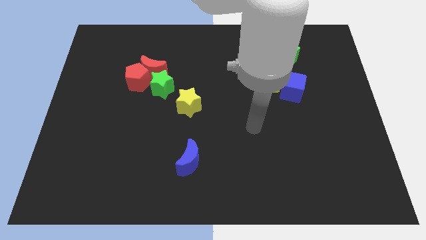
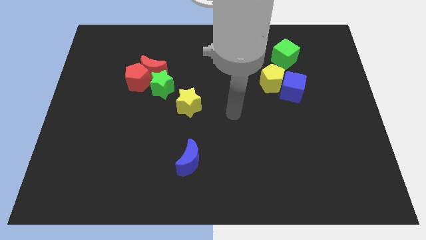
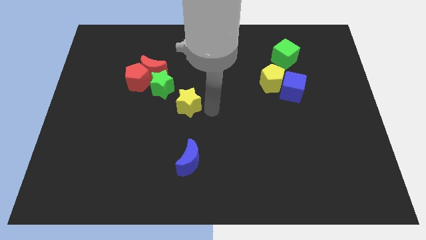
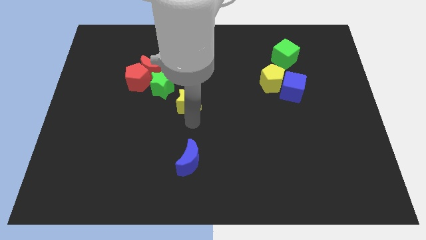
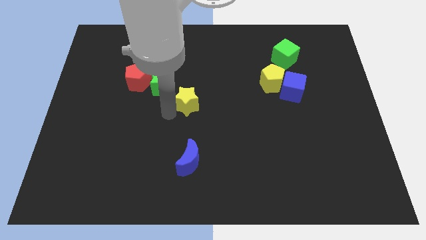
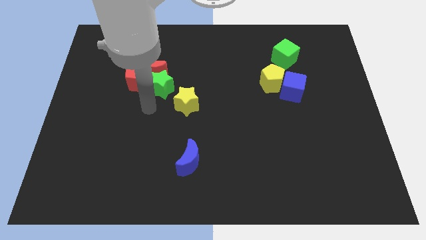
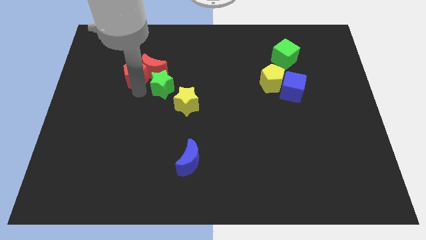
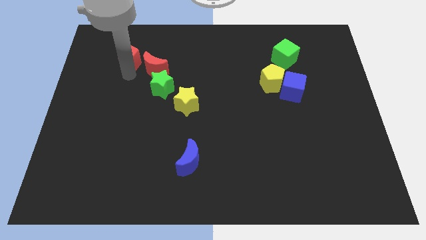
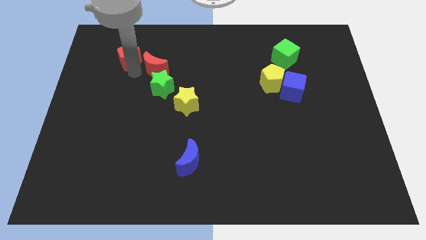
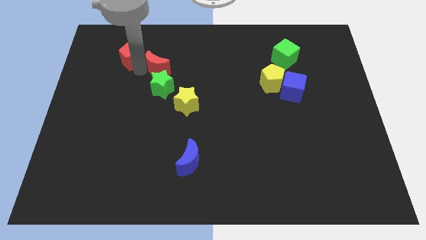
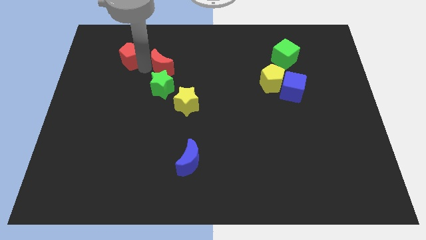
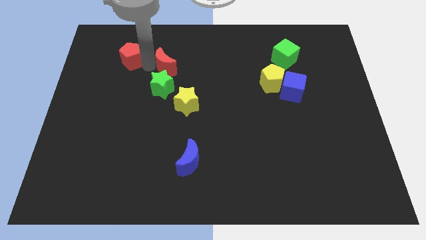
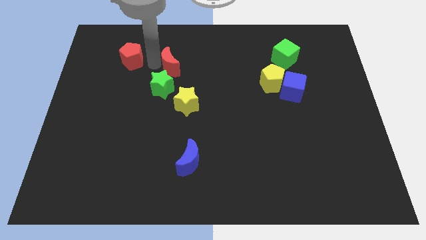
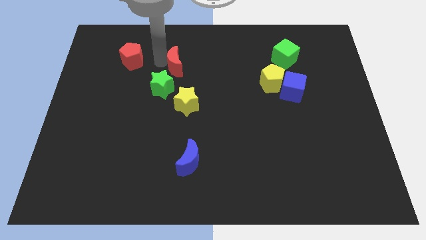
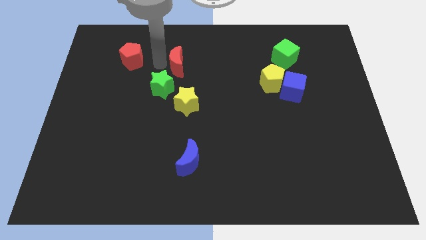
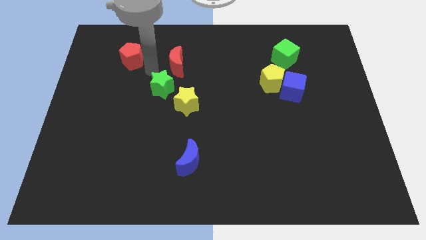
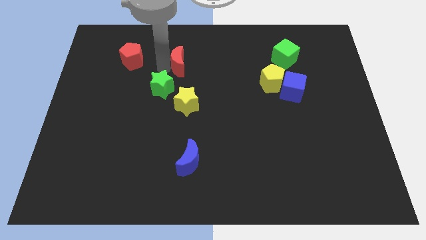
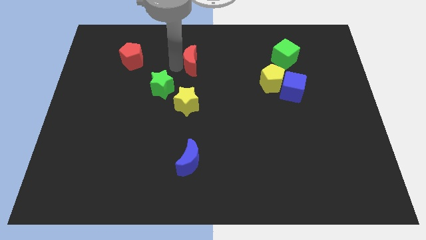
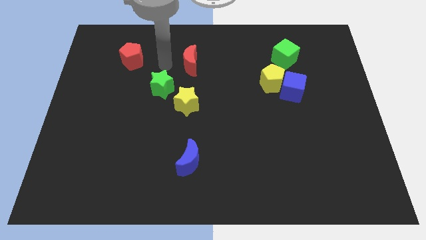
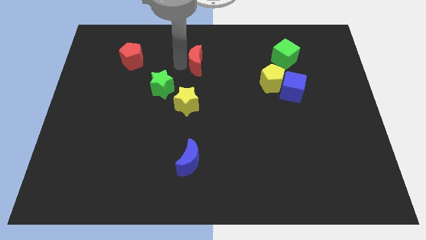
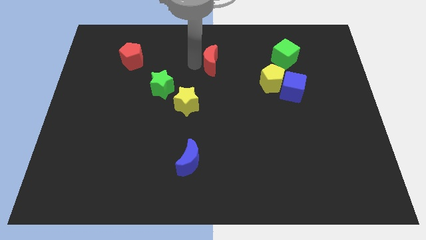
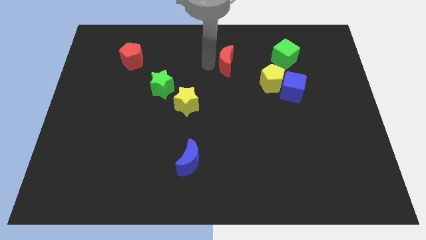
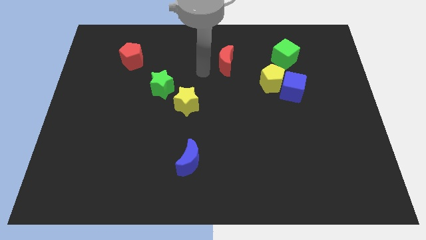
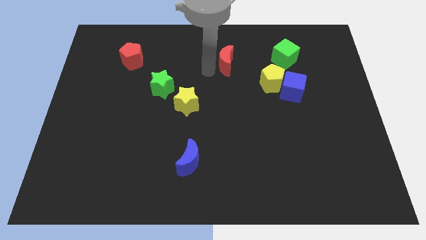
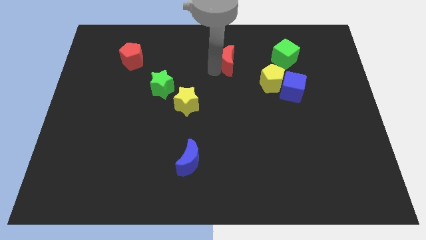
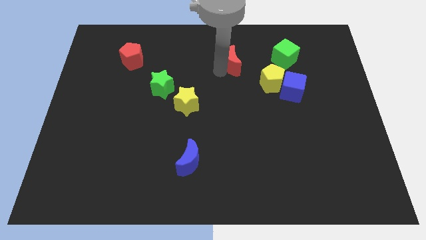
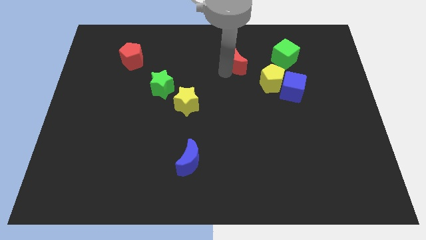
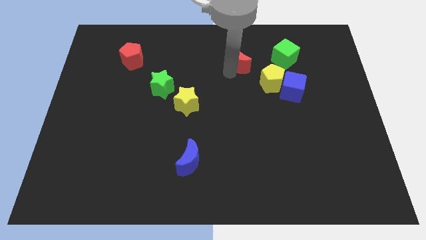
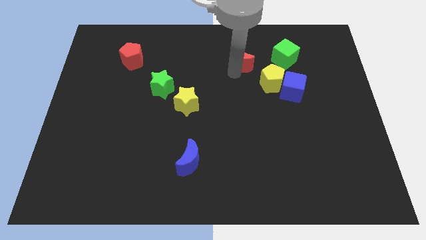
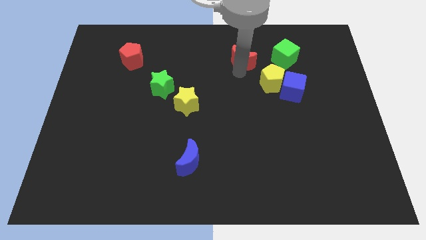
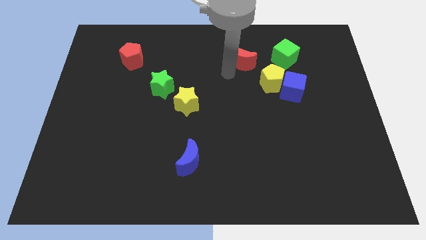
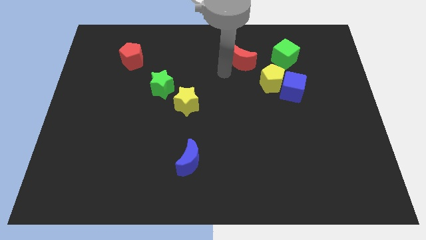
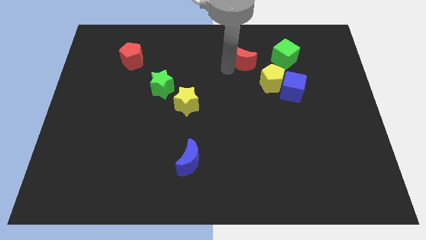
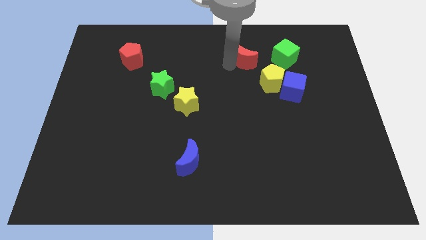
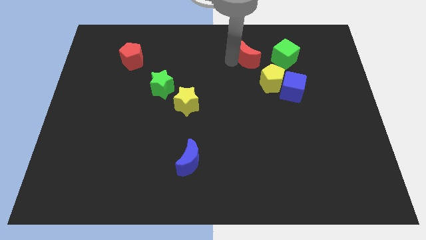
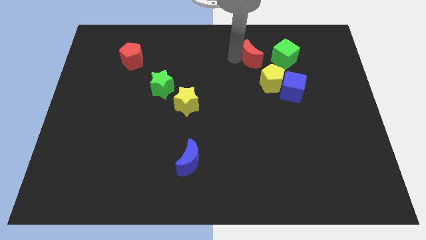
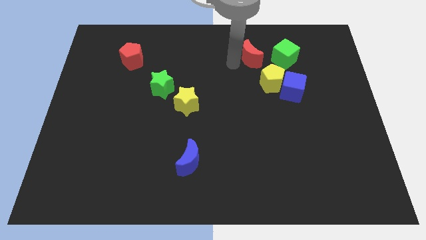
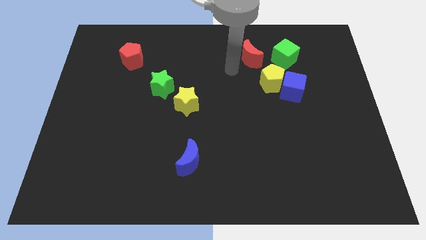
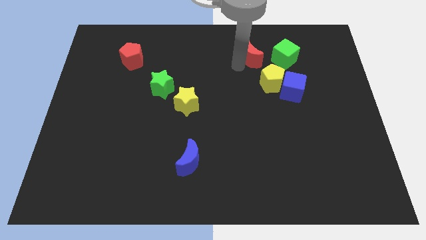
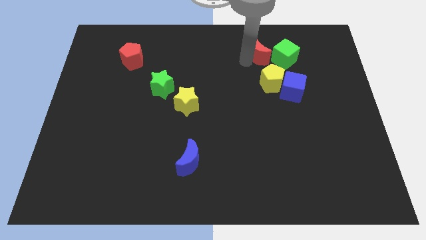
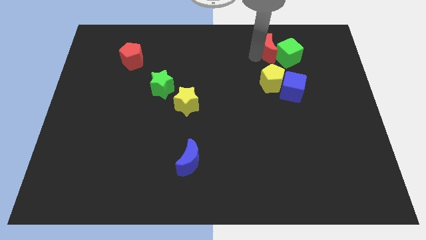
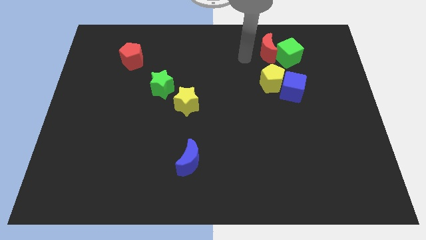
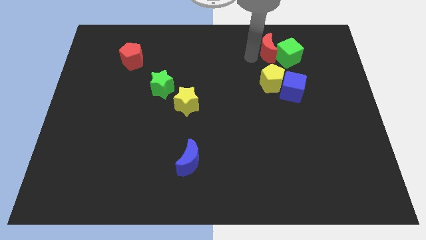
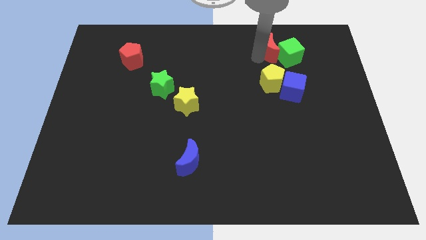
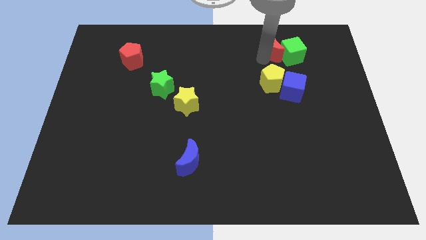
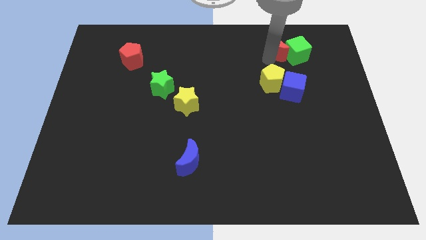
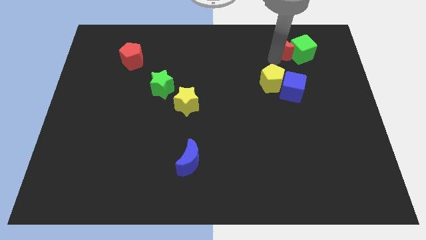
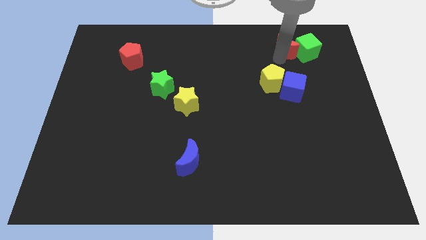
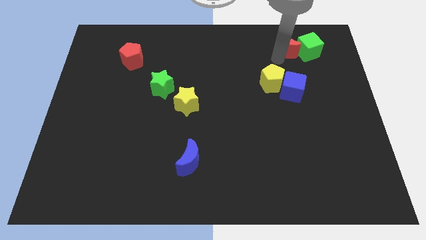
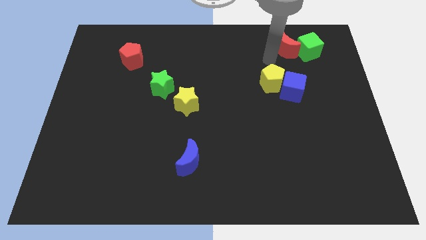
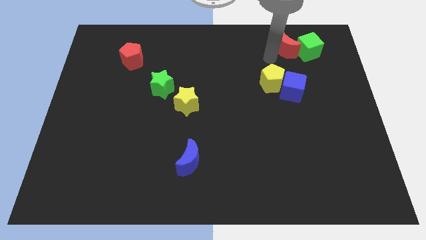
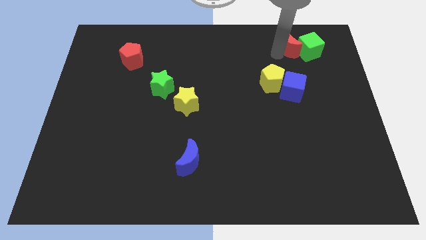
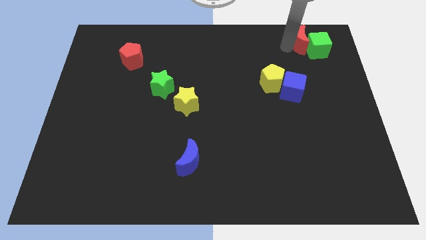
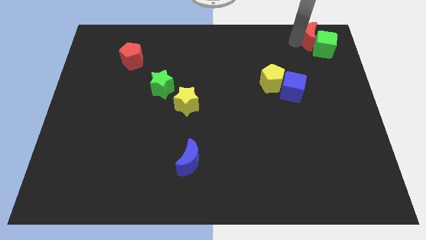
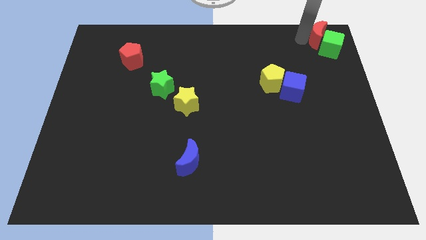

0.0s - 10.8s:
slide the red moon to the upper right corner

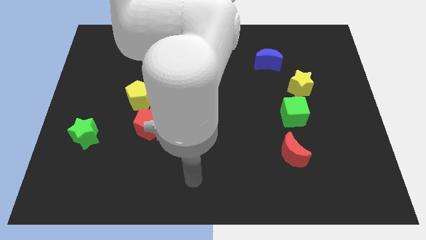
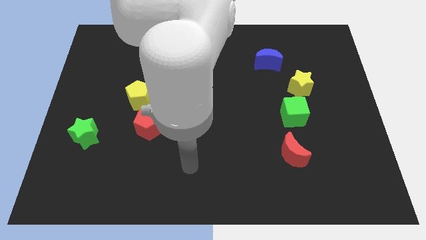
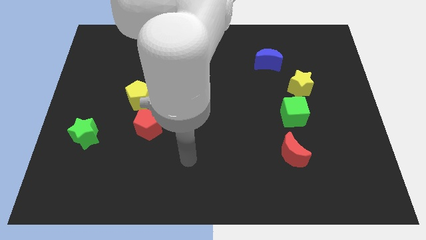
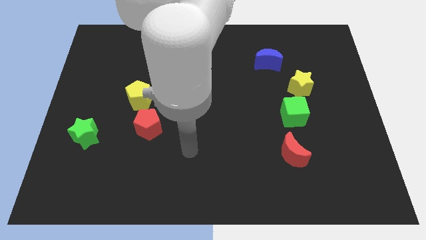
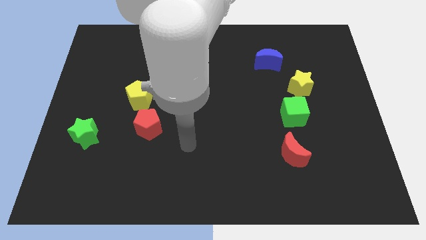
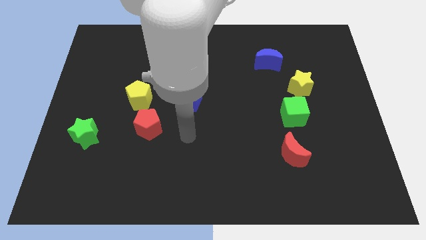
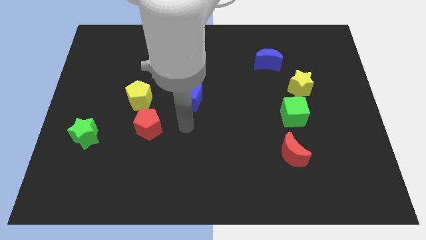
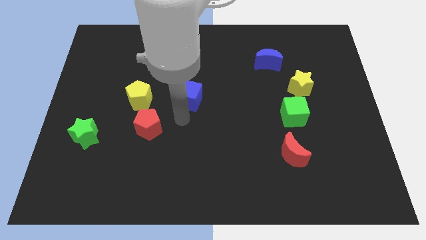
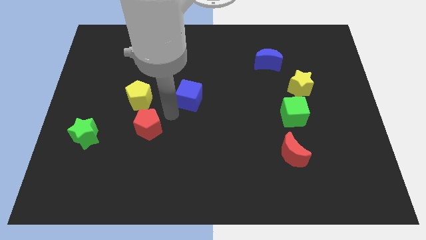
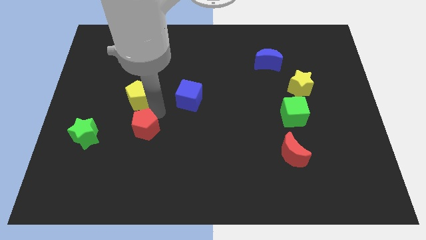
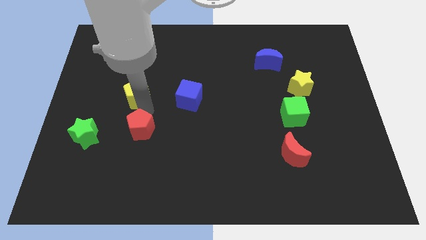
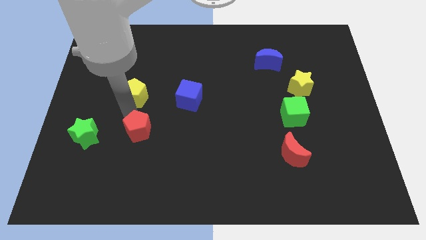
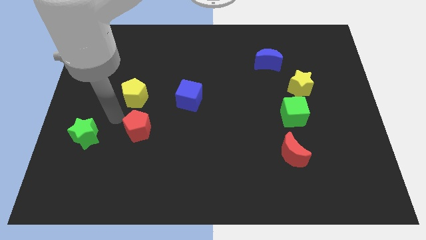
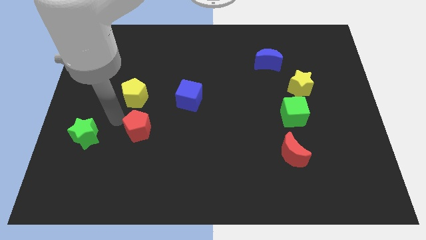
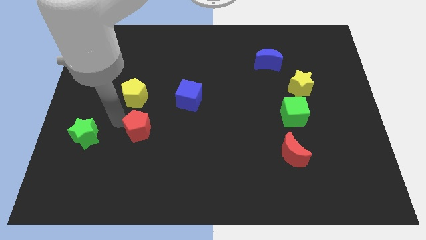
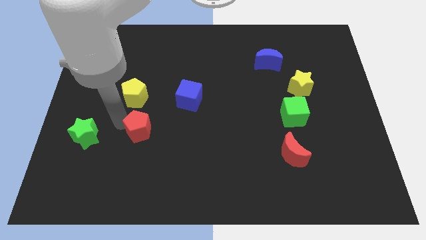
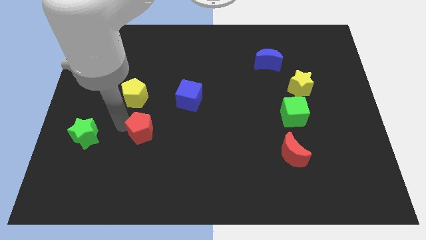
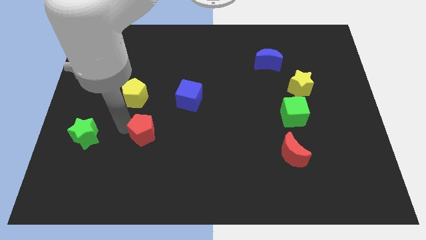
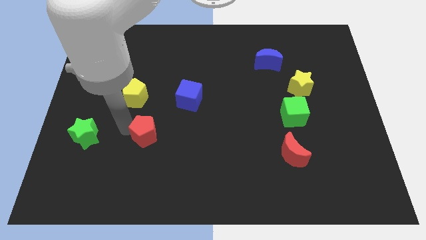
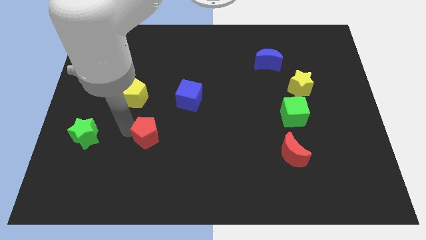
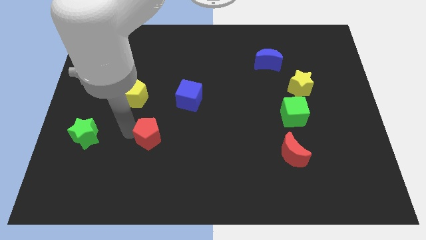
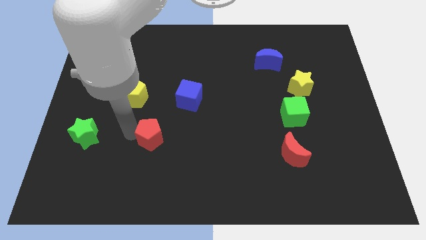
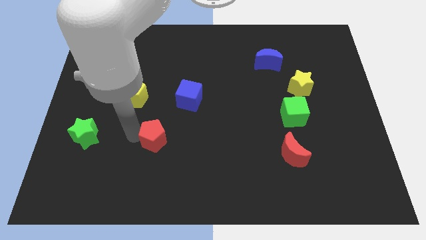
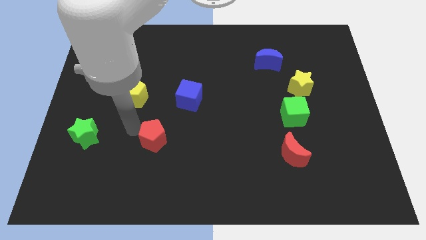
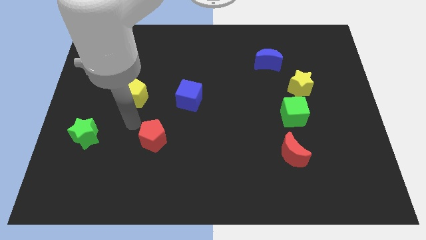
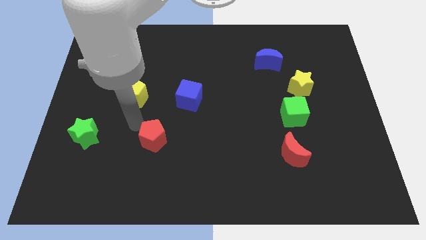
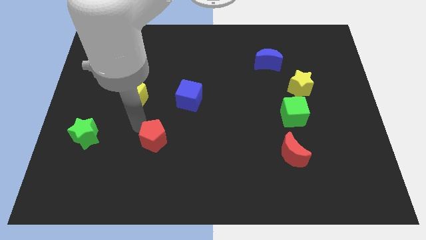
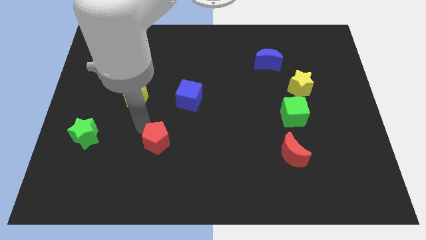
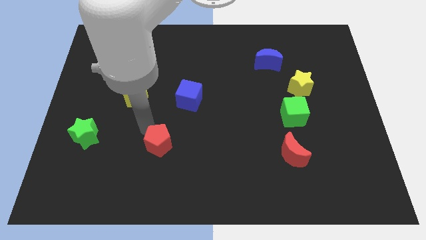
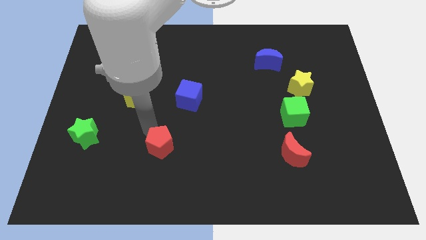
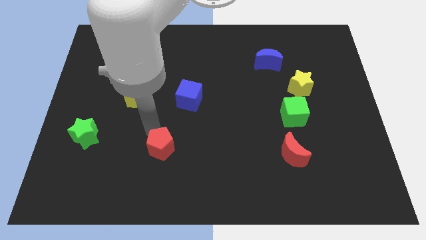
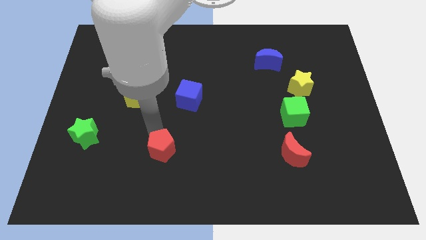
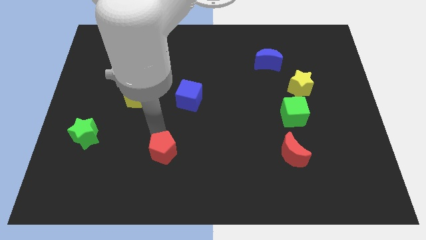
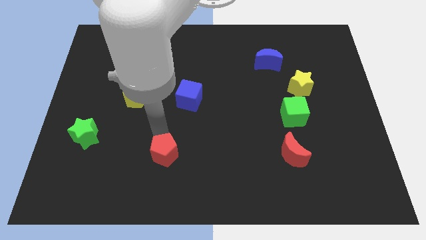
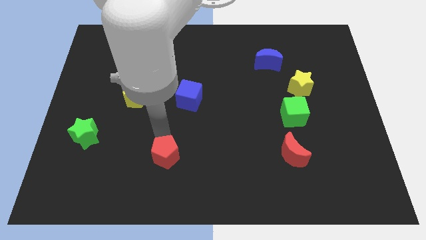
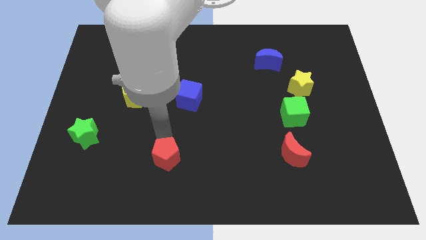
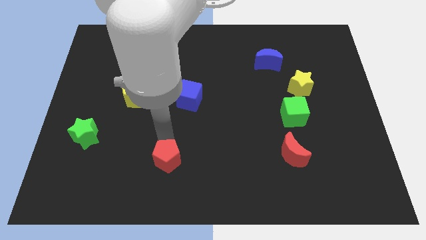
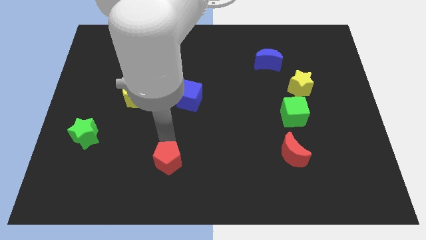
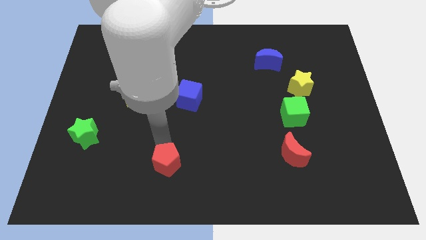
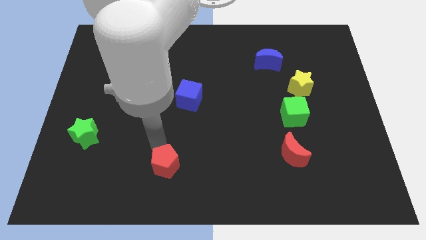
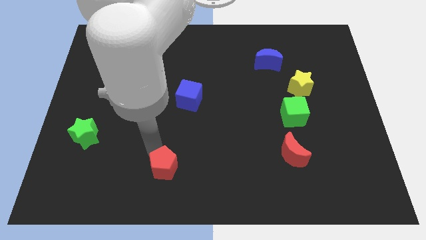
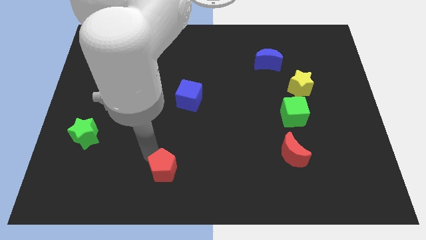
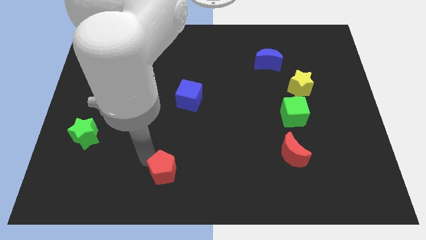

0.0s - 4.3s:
put the red pentagon to the bottom
